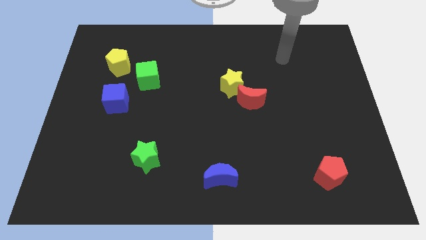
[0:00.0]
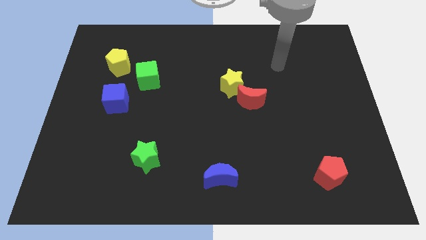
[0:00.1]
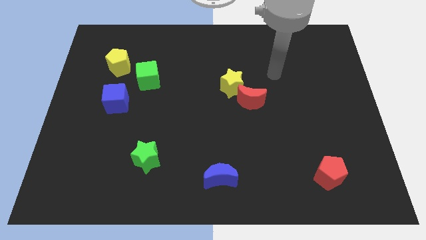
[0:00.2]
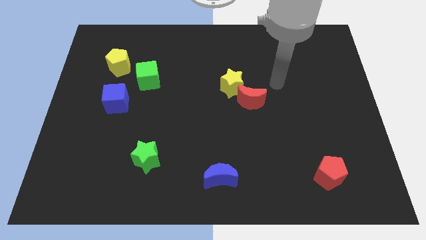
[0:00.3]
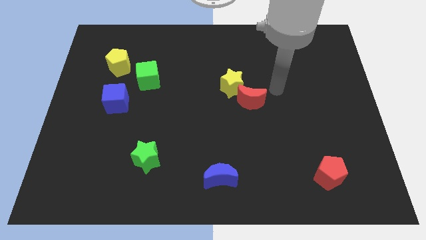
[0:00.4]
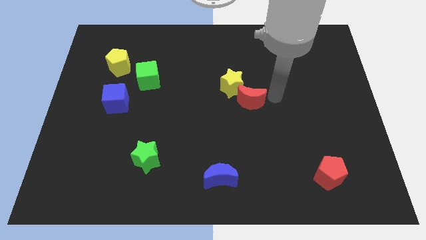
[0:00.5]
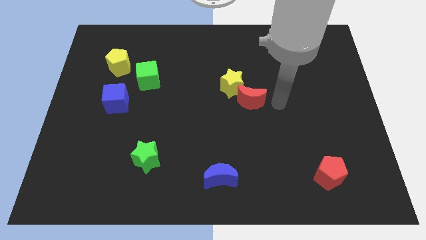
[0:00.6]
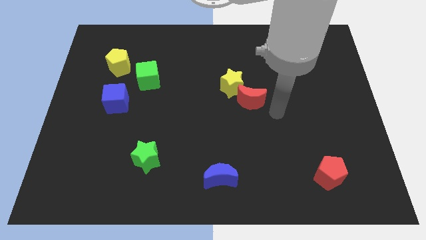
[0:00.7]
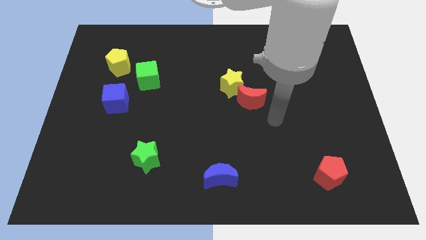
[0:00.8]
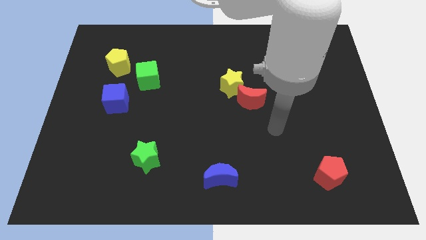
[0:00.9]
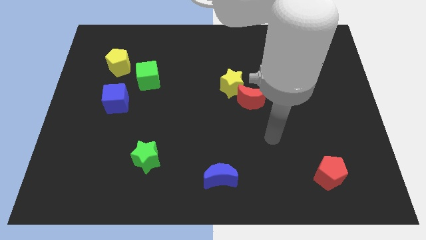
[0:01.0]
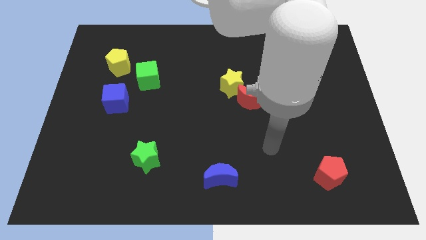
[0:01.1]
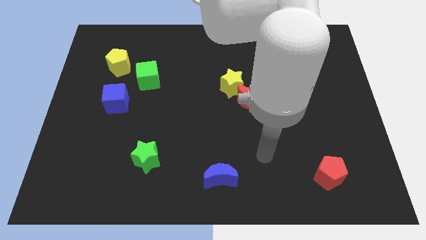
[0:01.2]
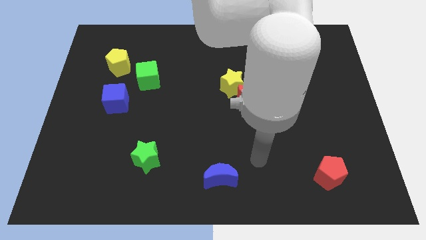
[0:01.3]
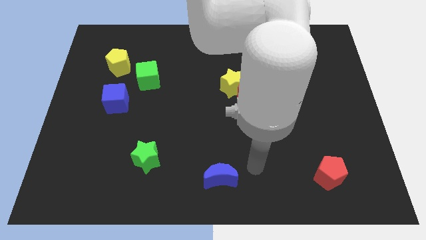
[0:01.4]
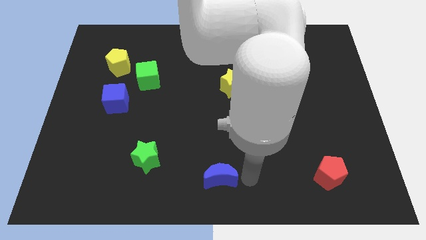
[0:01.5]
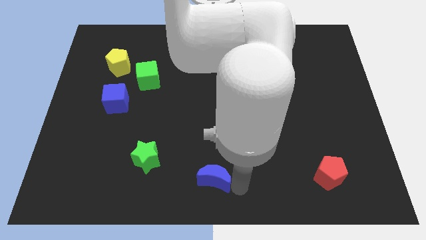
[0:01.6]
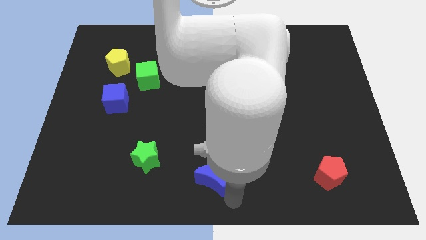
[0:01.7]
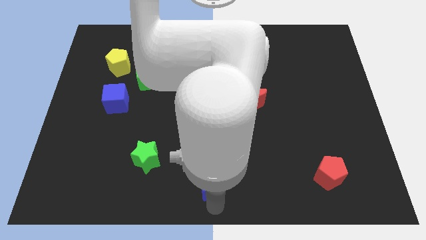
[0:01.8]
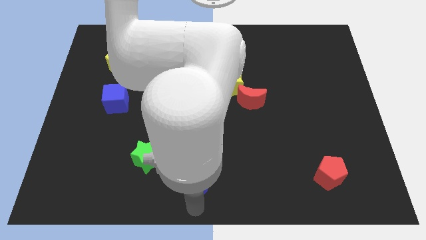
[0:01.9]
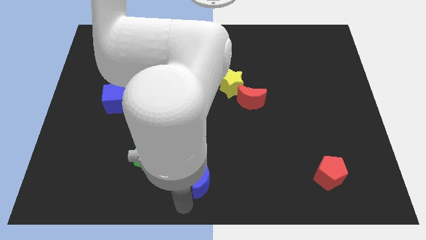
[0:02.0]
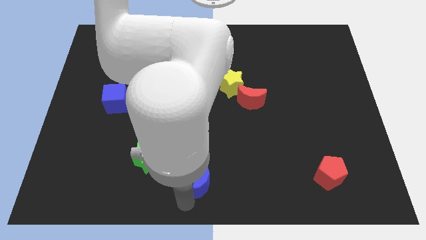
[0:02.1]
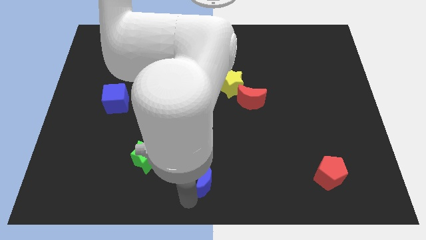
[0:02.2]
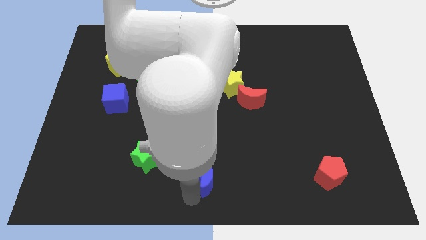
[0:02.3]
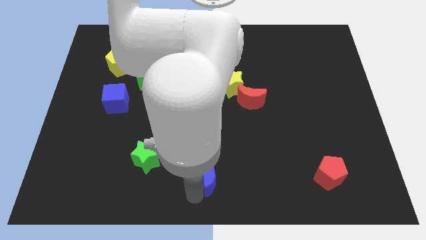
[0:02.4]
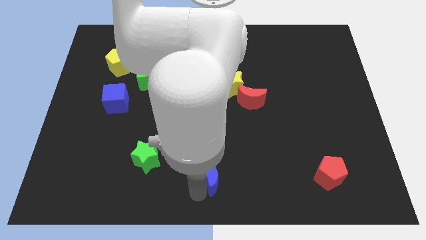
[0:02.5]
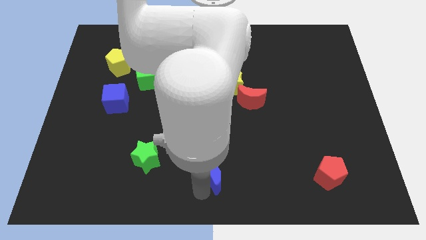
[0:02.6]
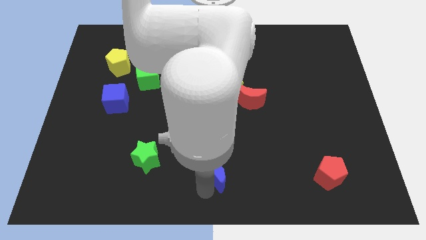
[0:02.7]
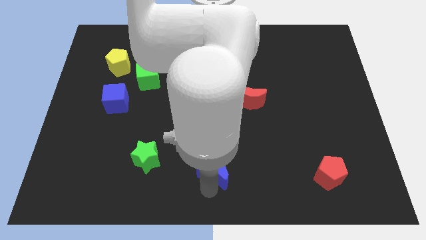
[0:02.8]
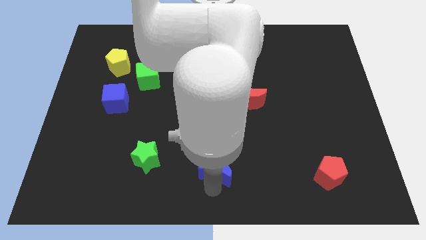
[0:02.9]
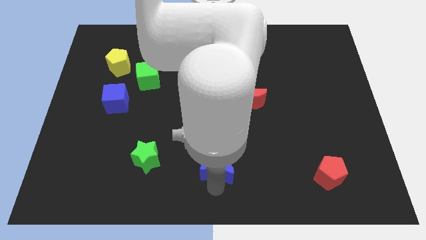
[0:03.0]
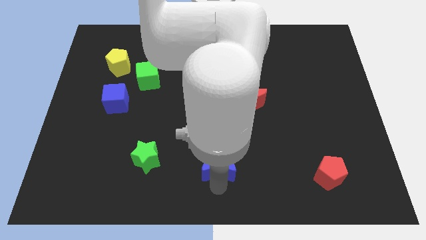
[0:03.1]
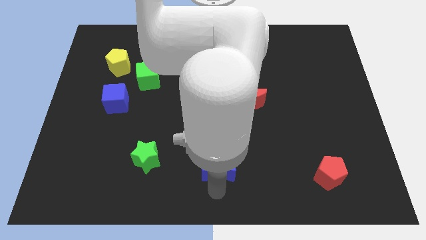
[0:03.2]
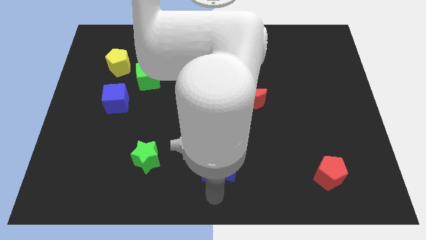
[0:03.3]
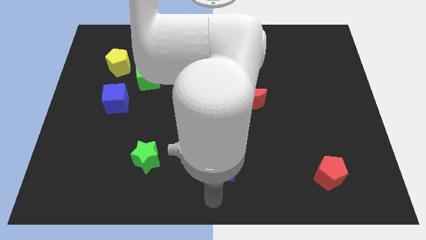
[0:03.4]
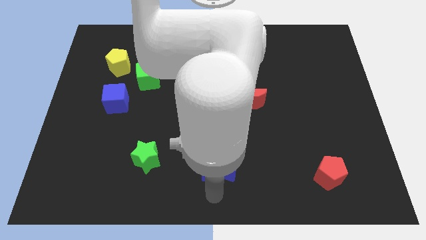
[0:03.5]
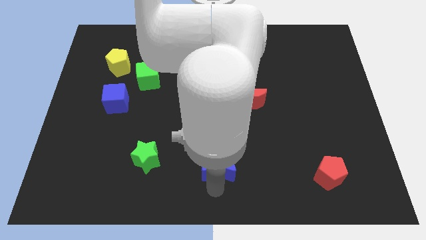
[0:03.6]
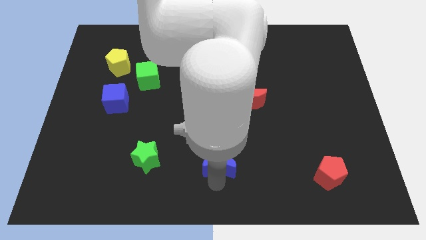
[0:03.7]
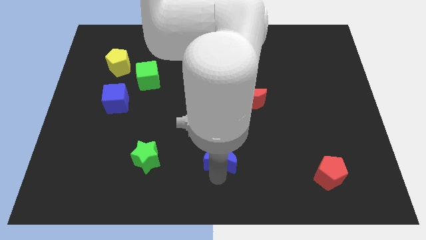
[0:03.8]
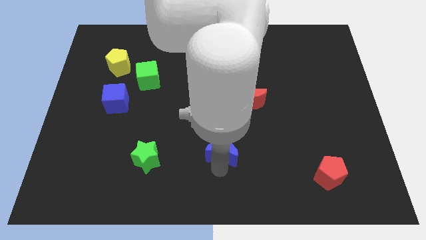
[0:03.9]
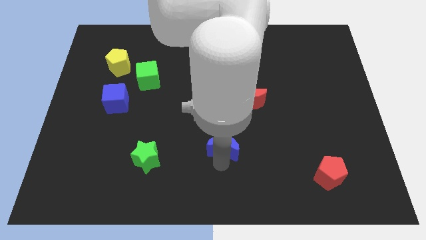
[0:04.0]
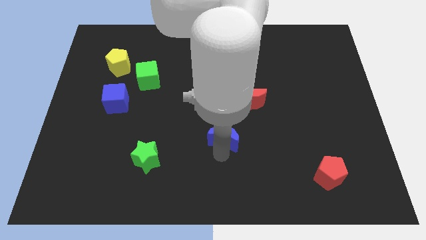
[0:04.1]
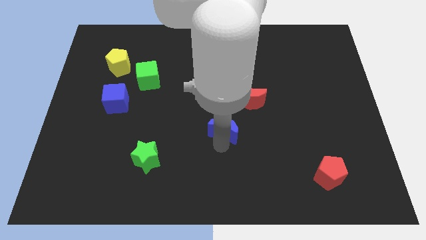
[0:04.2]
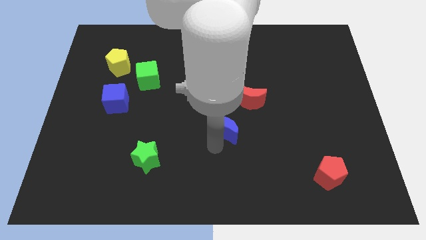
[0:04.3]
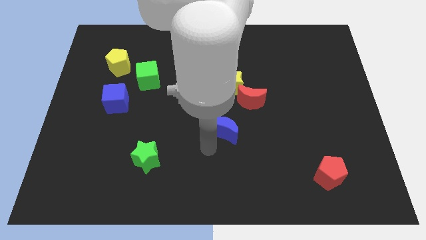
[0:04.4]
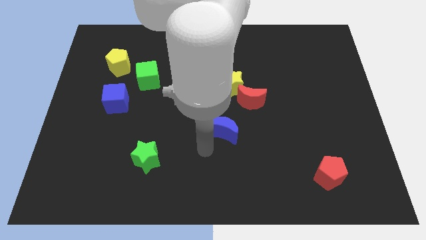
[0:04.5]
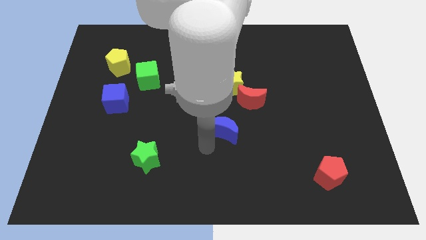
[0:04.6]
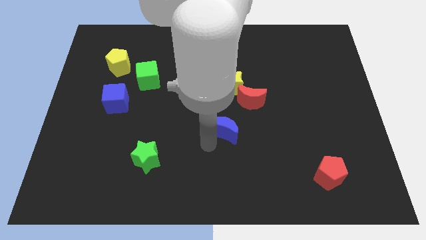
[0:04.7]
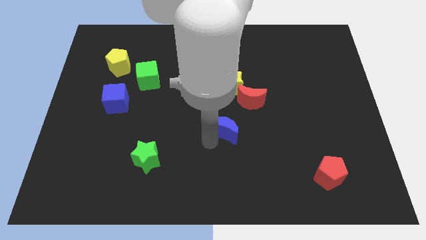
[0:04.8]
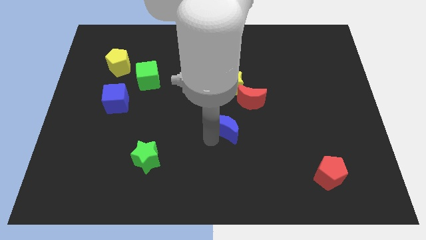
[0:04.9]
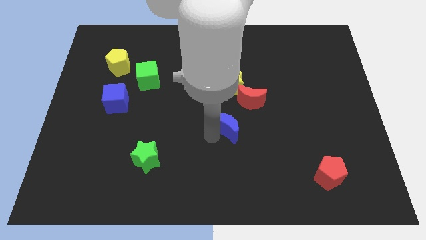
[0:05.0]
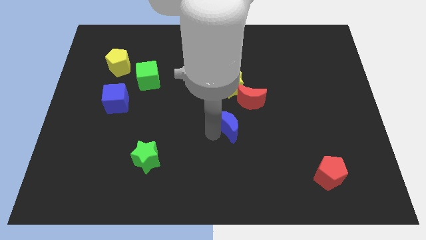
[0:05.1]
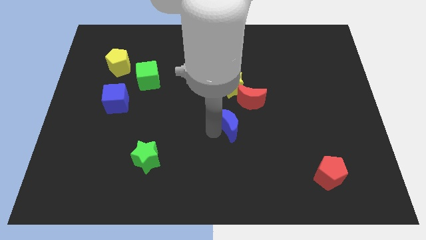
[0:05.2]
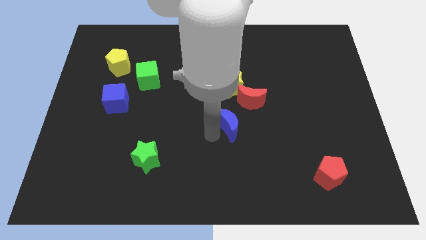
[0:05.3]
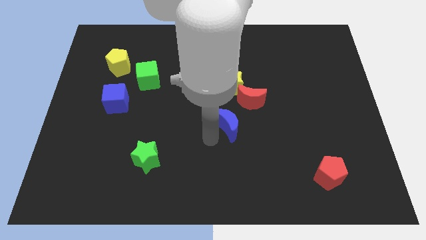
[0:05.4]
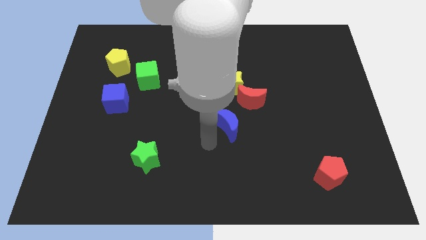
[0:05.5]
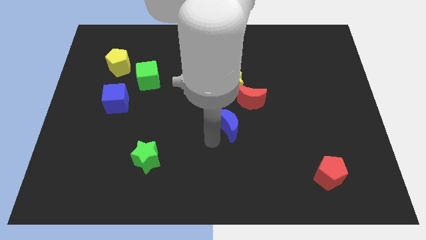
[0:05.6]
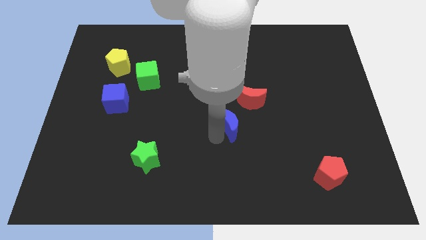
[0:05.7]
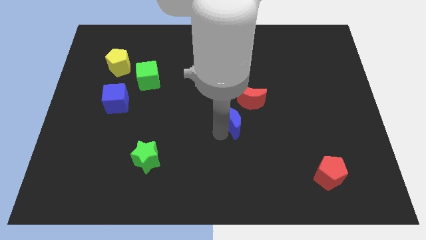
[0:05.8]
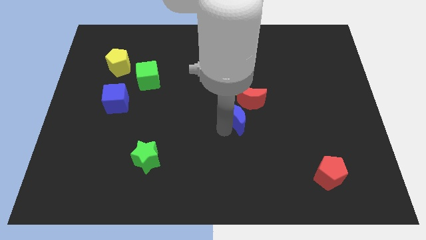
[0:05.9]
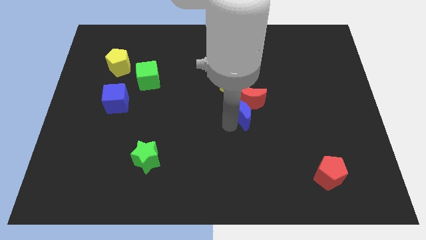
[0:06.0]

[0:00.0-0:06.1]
move the blue moon close to the red moon

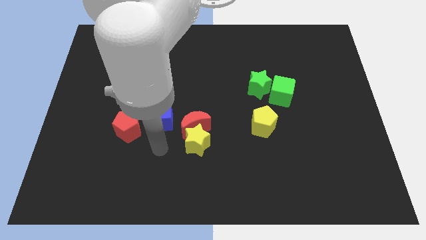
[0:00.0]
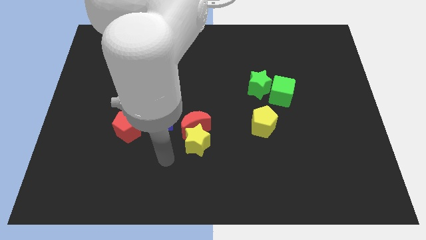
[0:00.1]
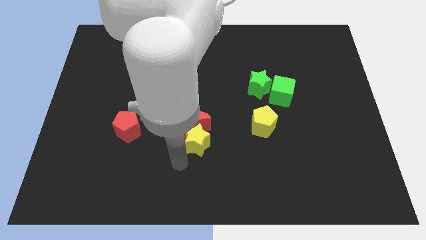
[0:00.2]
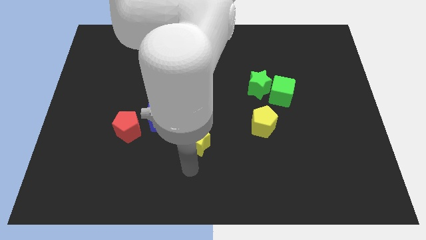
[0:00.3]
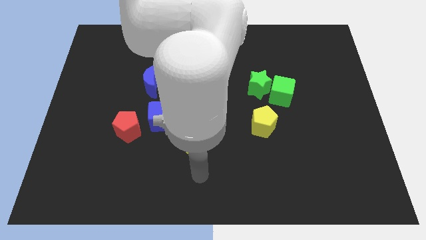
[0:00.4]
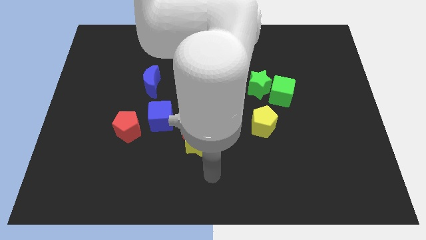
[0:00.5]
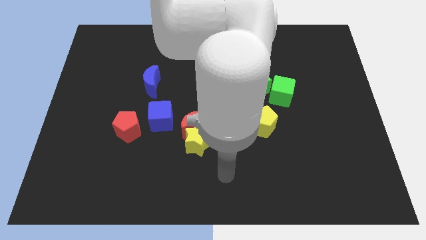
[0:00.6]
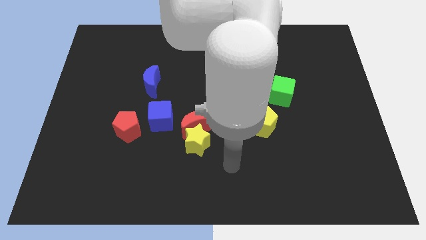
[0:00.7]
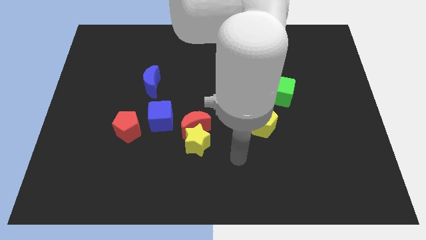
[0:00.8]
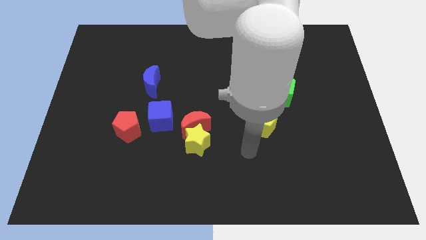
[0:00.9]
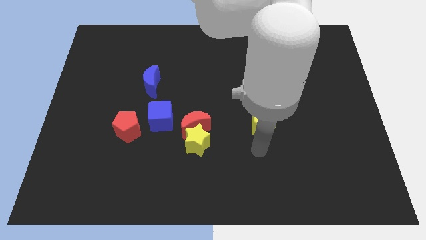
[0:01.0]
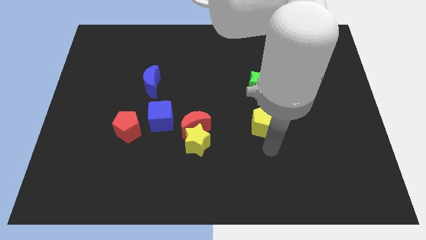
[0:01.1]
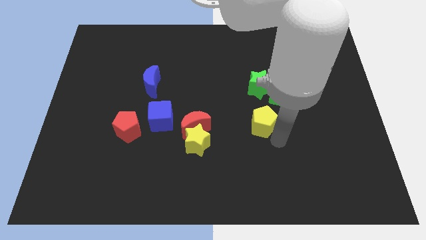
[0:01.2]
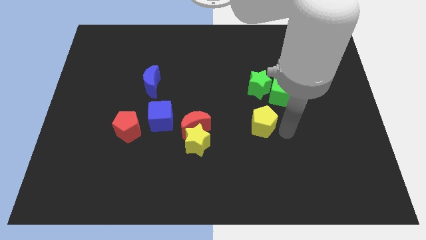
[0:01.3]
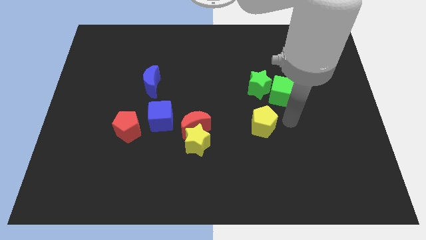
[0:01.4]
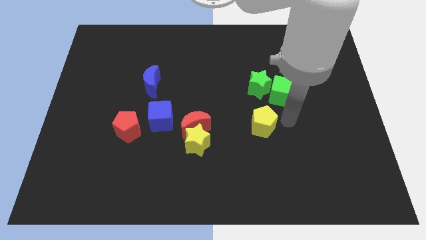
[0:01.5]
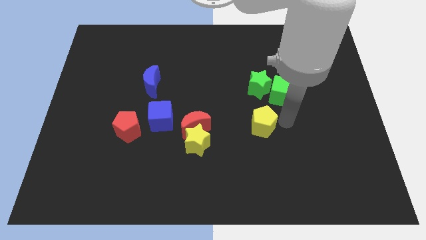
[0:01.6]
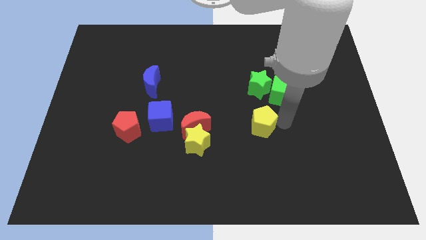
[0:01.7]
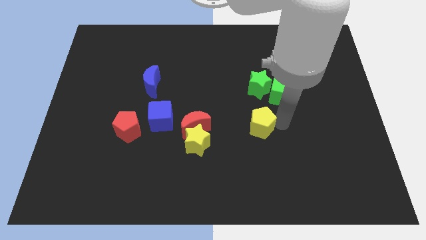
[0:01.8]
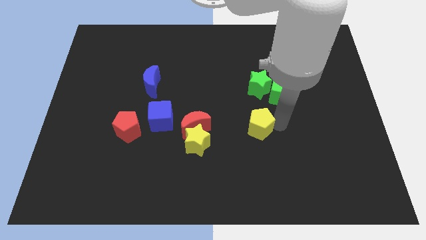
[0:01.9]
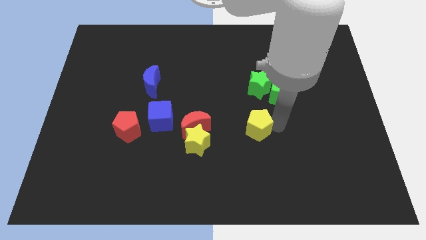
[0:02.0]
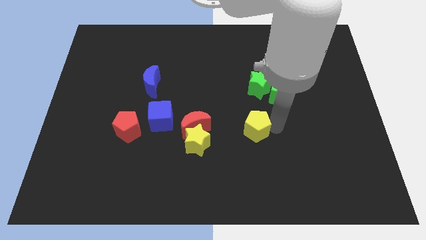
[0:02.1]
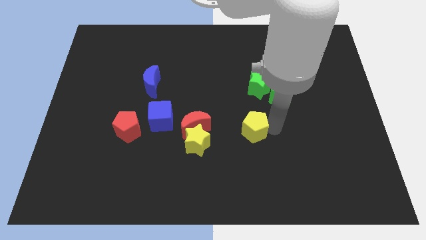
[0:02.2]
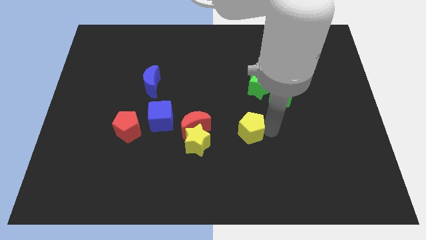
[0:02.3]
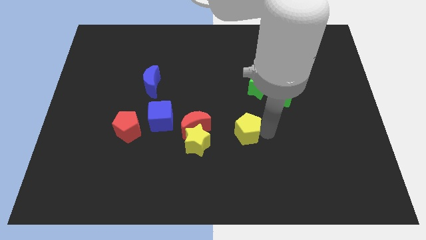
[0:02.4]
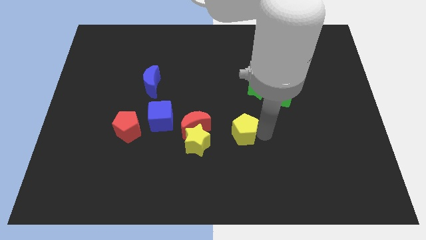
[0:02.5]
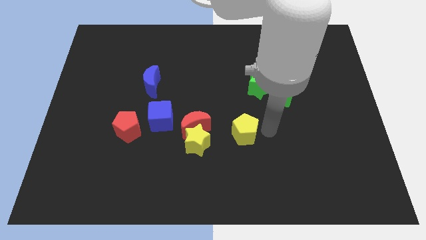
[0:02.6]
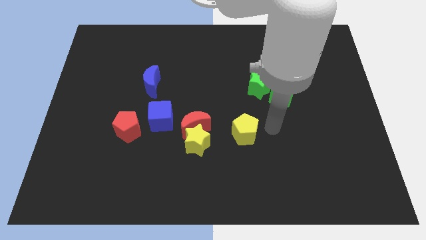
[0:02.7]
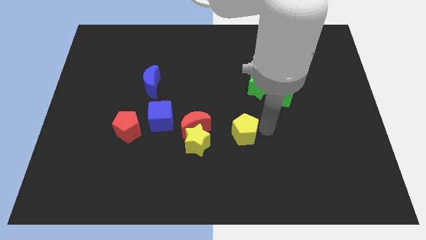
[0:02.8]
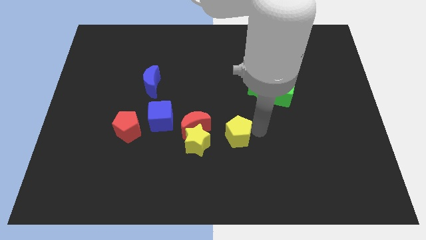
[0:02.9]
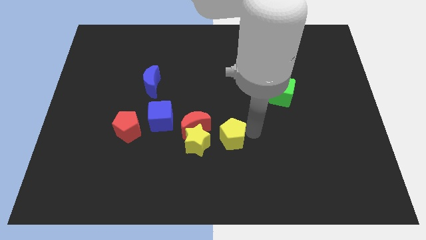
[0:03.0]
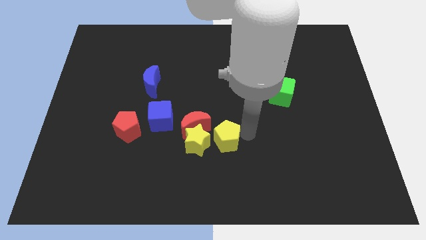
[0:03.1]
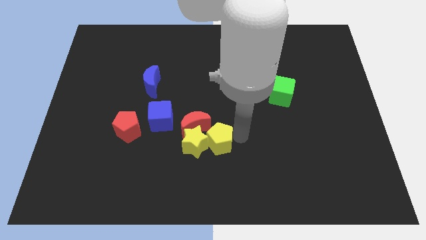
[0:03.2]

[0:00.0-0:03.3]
put the yellow pentagon to the yellow star
